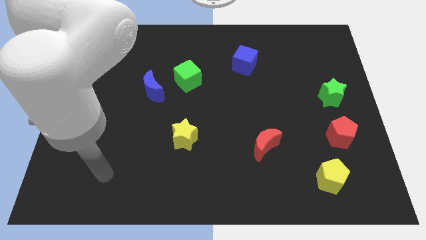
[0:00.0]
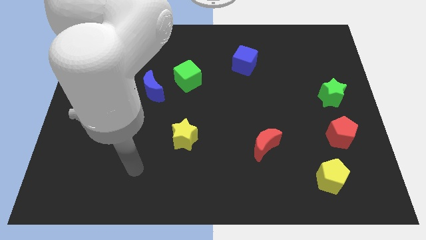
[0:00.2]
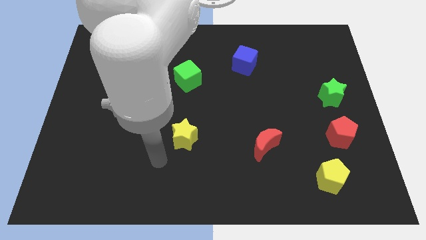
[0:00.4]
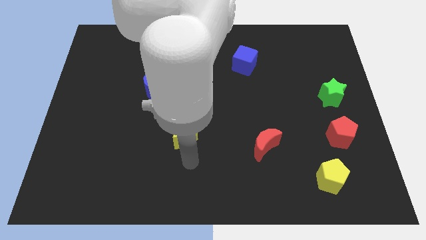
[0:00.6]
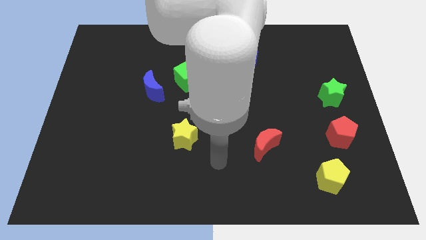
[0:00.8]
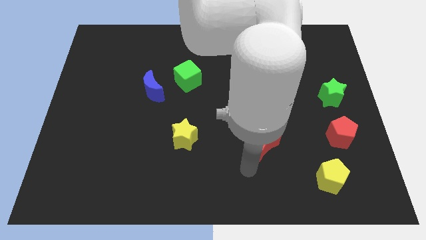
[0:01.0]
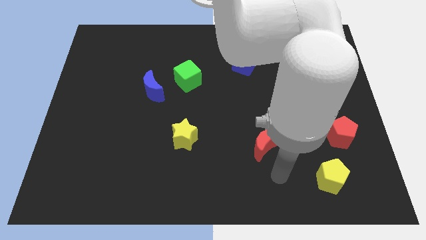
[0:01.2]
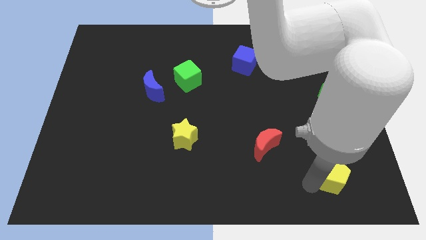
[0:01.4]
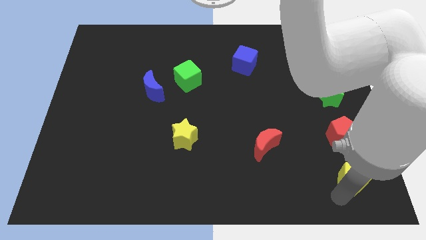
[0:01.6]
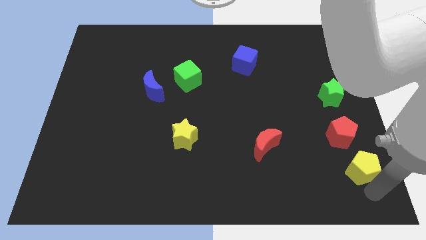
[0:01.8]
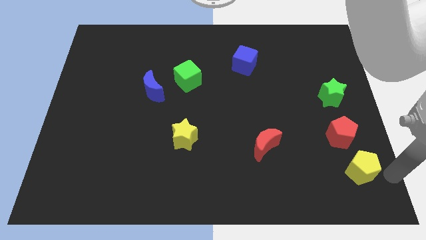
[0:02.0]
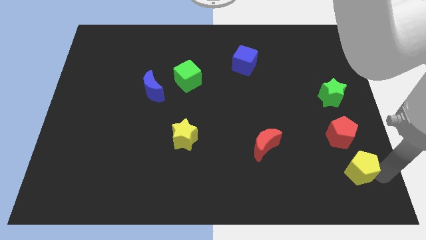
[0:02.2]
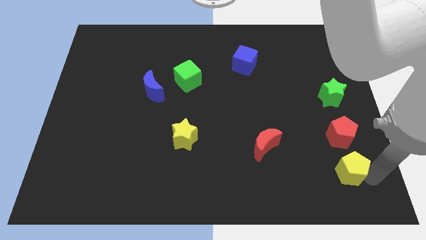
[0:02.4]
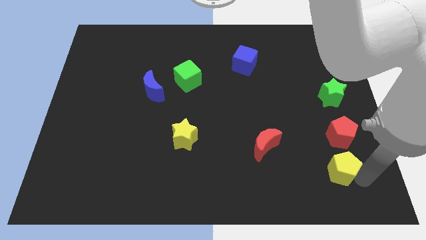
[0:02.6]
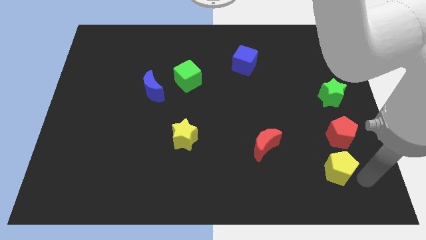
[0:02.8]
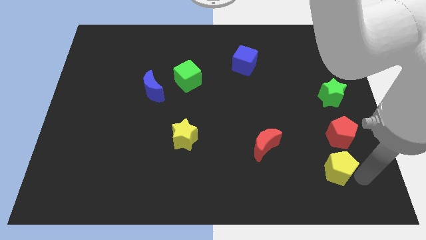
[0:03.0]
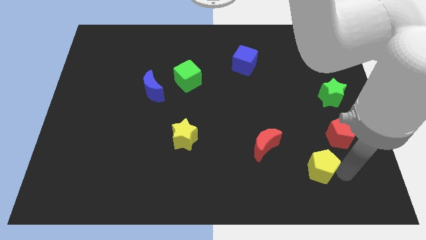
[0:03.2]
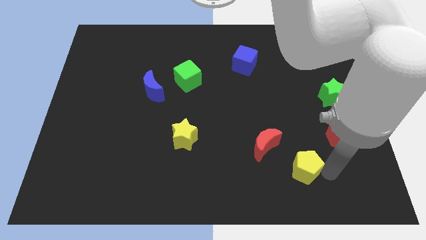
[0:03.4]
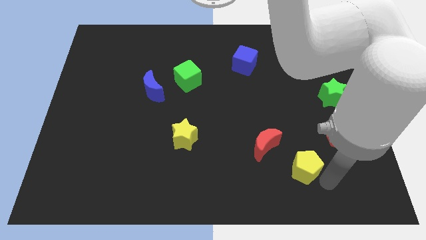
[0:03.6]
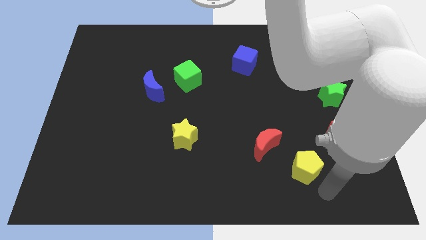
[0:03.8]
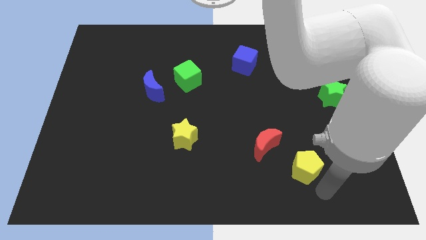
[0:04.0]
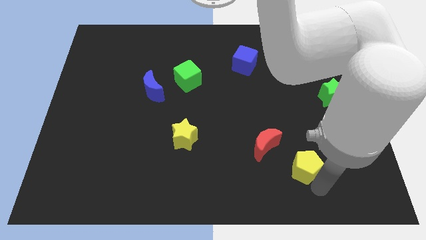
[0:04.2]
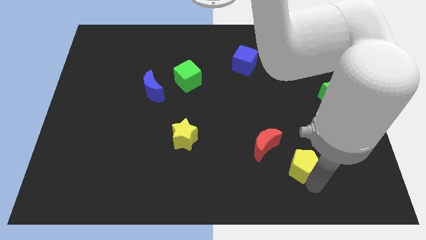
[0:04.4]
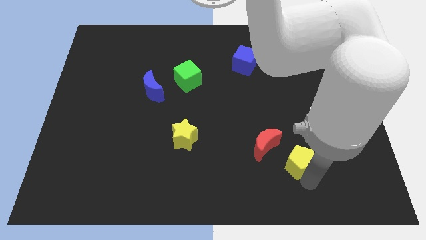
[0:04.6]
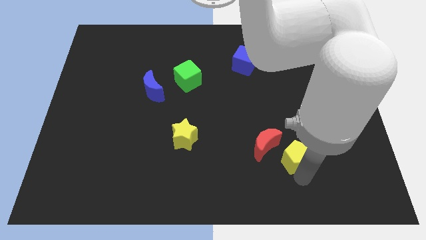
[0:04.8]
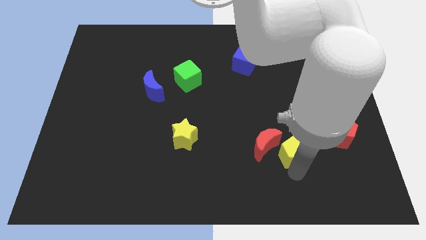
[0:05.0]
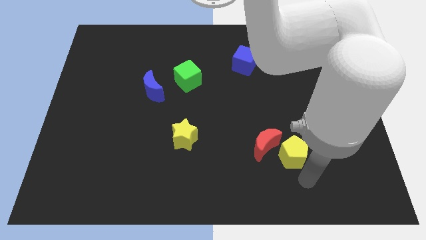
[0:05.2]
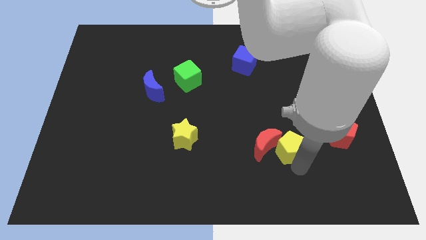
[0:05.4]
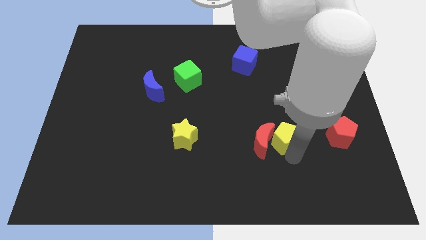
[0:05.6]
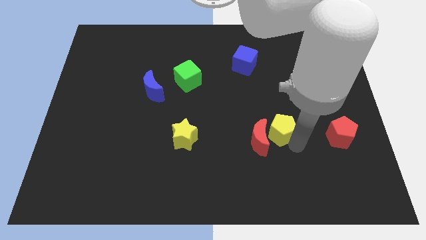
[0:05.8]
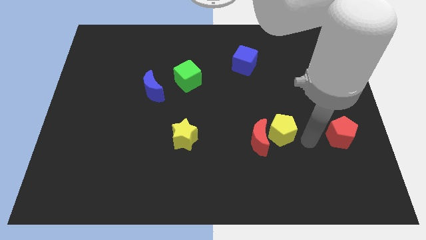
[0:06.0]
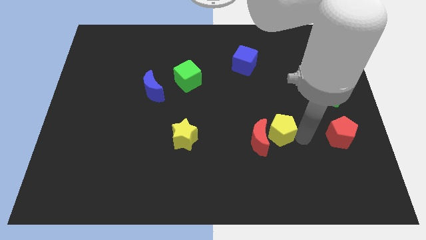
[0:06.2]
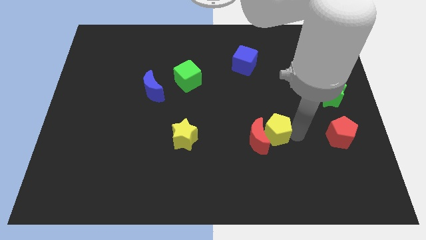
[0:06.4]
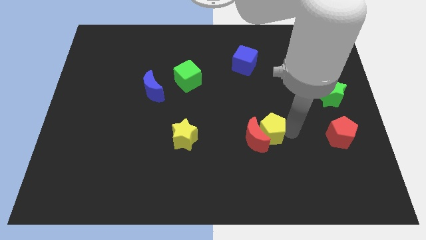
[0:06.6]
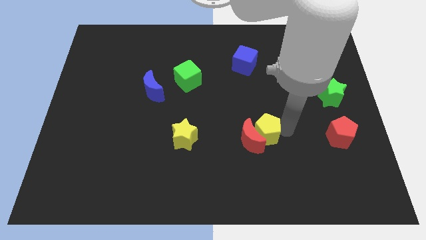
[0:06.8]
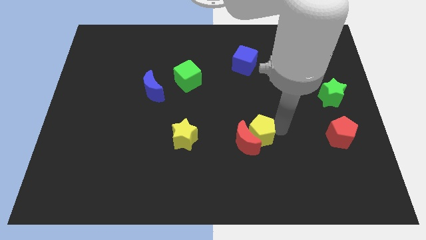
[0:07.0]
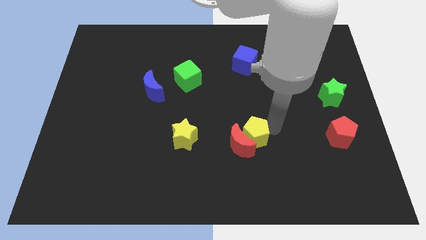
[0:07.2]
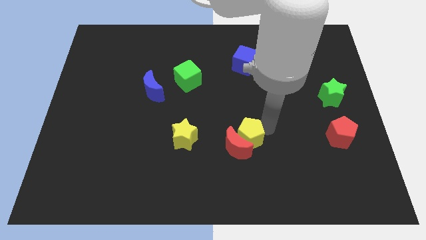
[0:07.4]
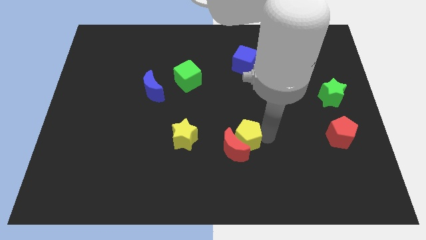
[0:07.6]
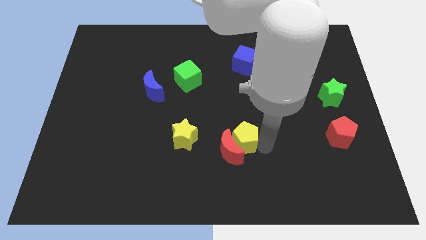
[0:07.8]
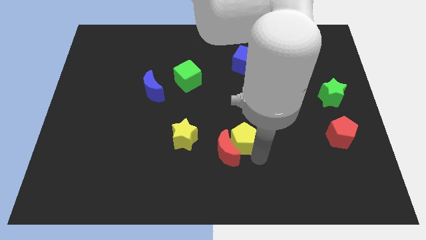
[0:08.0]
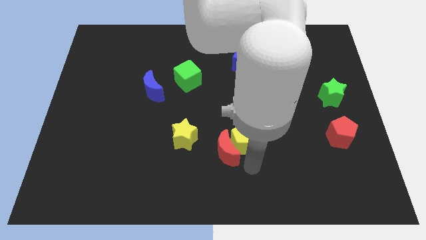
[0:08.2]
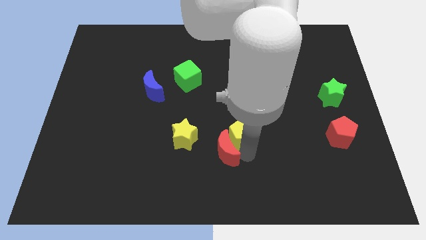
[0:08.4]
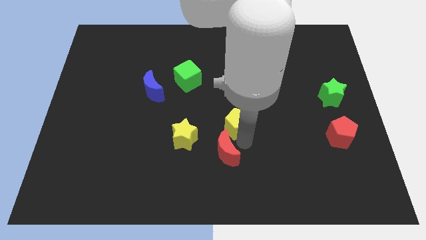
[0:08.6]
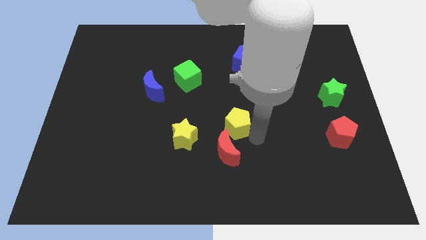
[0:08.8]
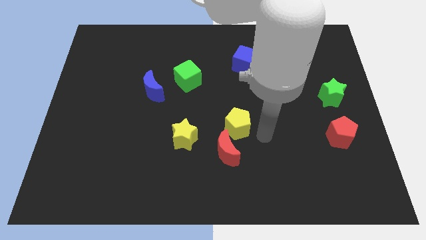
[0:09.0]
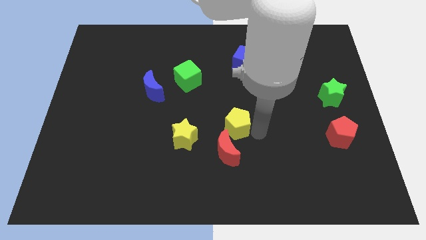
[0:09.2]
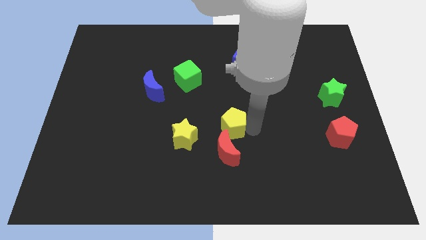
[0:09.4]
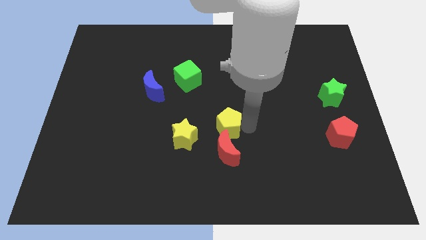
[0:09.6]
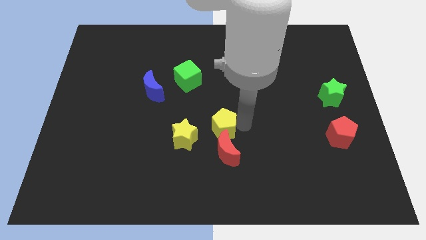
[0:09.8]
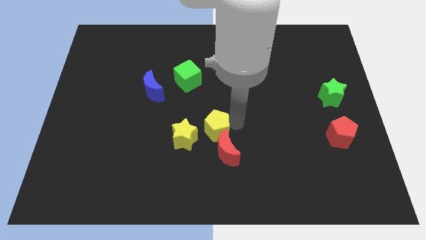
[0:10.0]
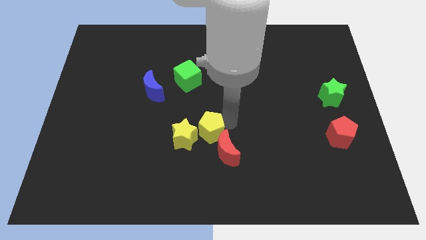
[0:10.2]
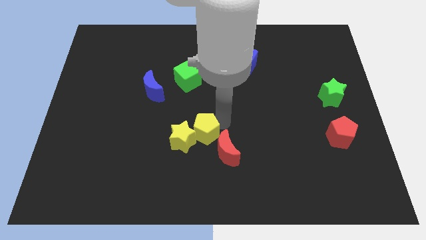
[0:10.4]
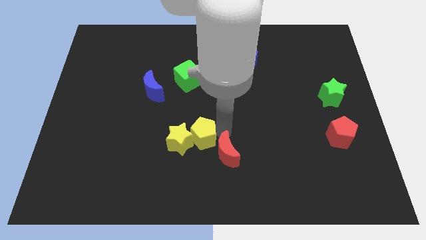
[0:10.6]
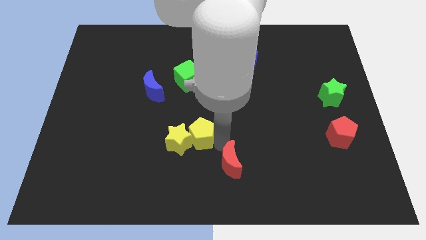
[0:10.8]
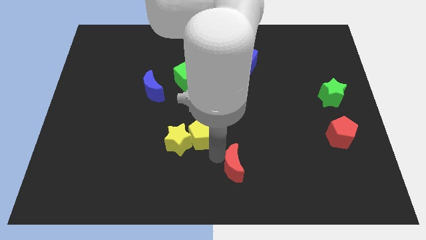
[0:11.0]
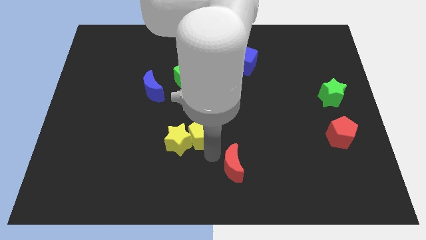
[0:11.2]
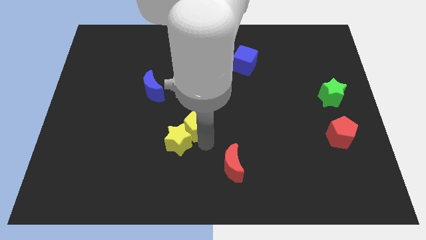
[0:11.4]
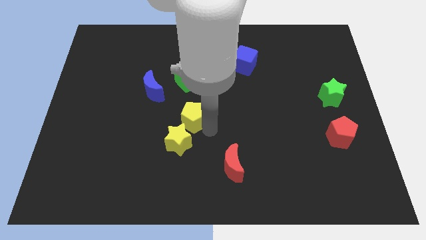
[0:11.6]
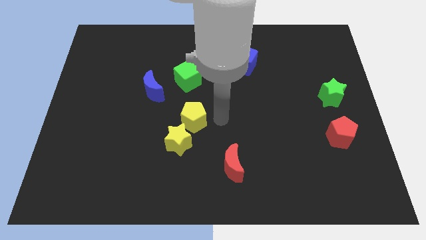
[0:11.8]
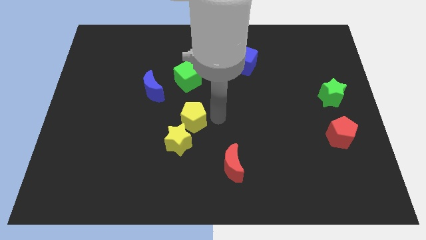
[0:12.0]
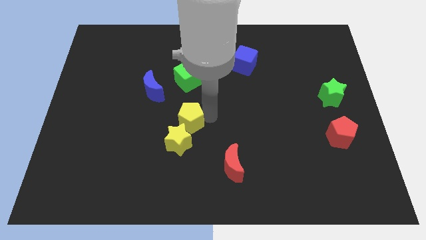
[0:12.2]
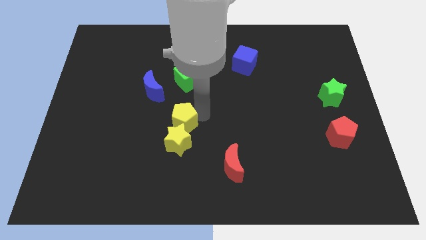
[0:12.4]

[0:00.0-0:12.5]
move the yellow pentagon diagonally up and to the left of the yellow star
